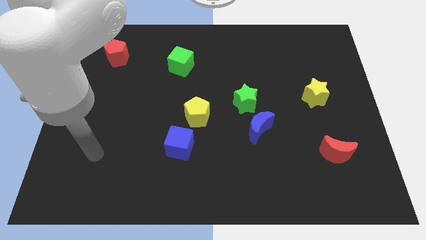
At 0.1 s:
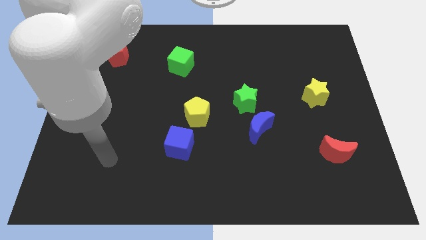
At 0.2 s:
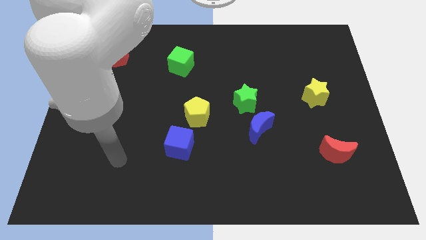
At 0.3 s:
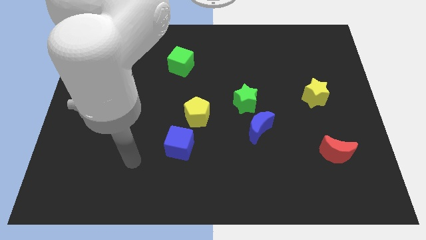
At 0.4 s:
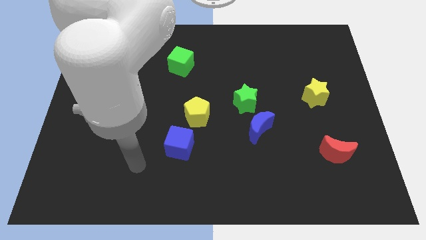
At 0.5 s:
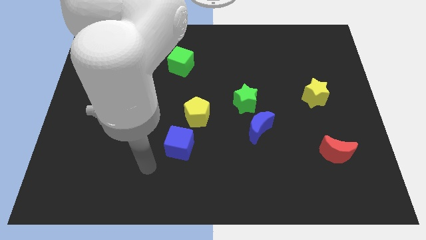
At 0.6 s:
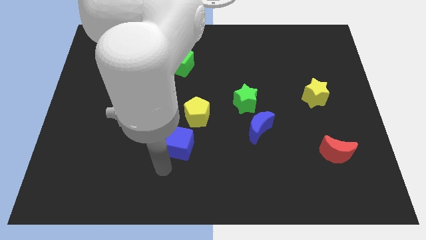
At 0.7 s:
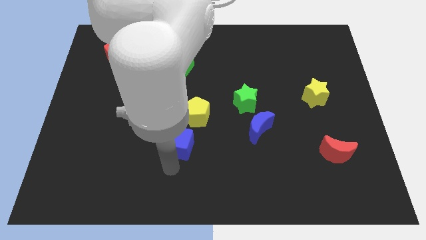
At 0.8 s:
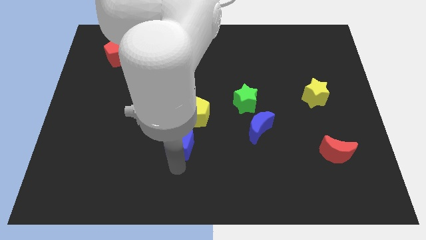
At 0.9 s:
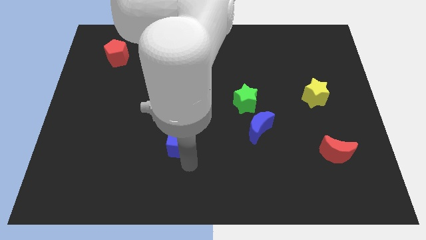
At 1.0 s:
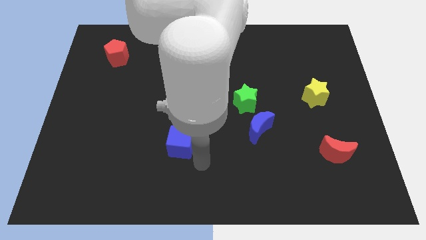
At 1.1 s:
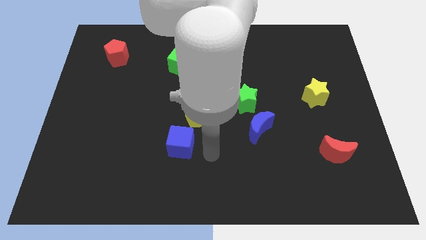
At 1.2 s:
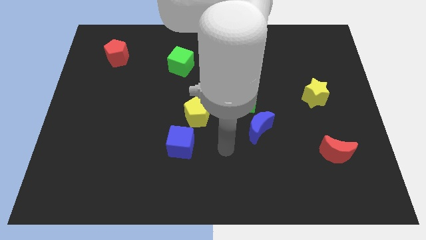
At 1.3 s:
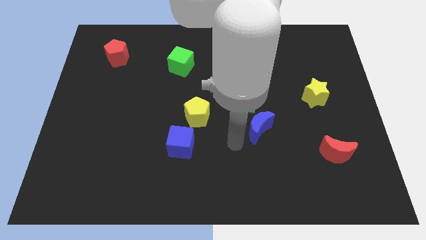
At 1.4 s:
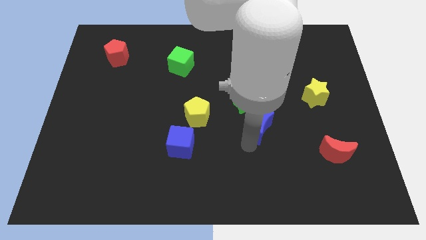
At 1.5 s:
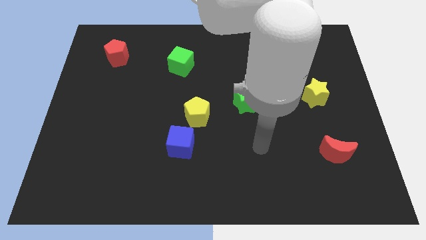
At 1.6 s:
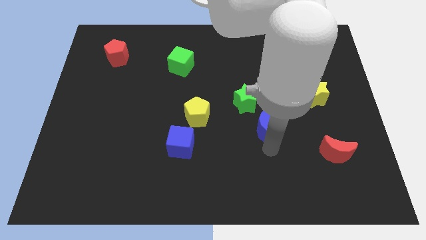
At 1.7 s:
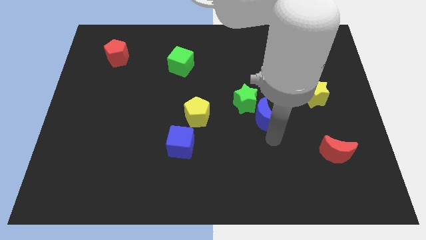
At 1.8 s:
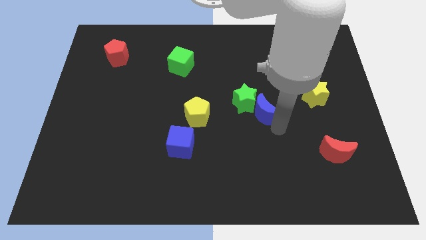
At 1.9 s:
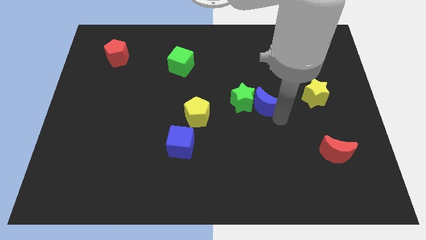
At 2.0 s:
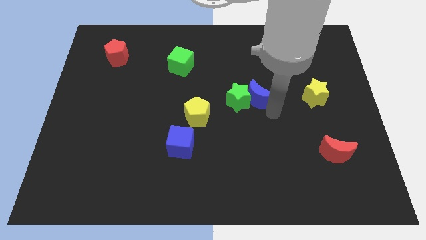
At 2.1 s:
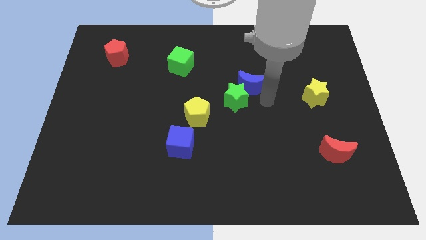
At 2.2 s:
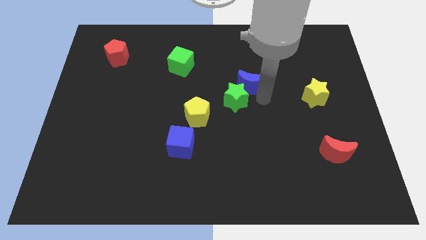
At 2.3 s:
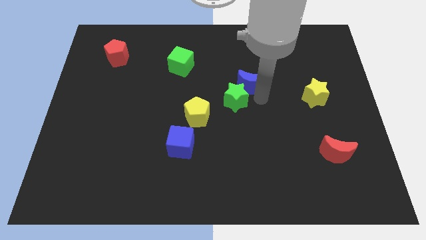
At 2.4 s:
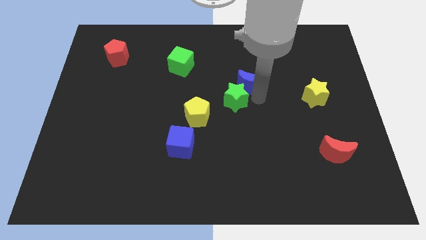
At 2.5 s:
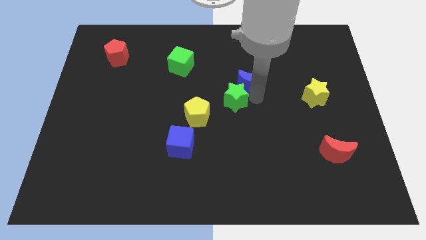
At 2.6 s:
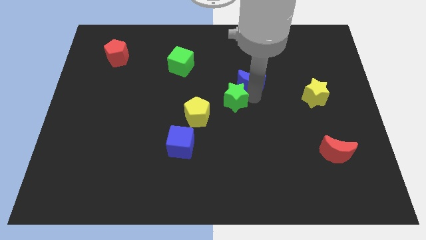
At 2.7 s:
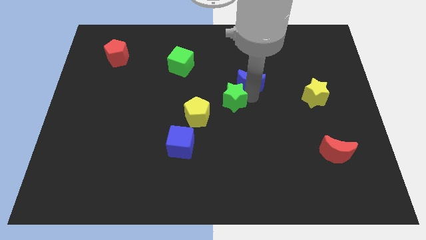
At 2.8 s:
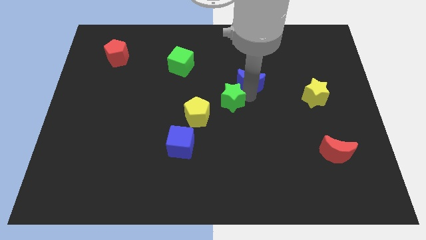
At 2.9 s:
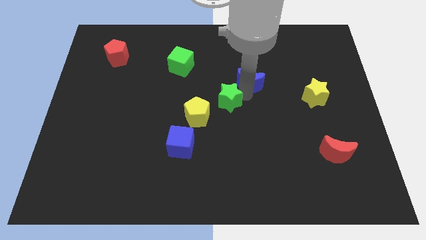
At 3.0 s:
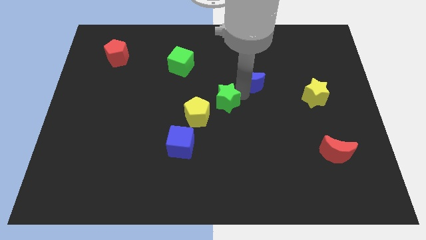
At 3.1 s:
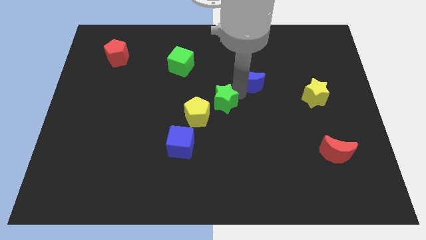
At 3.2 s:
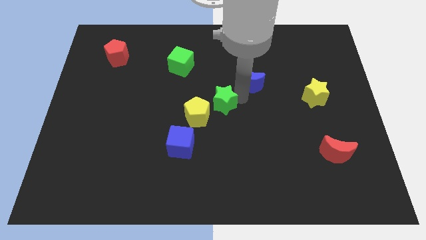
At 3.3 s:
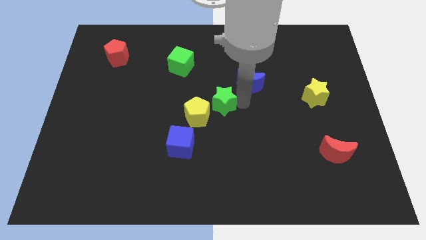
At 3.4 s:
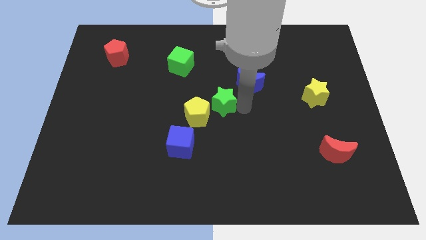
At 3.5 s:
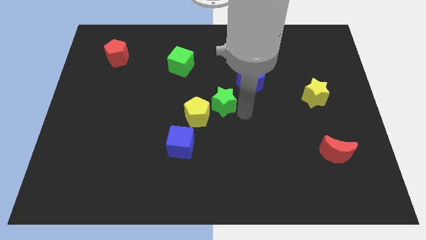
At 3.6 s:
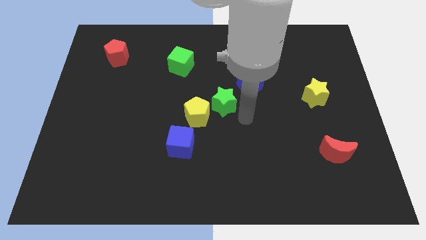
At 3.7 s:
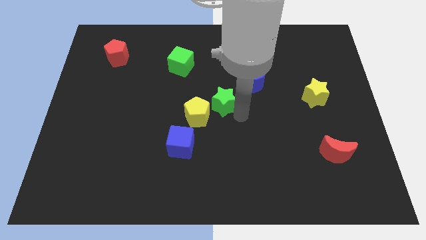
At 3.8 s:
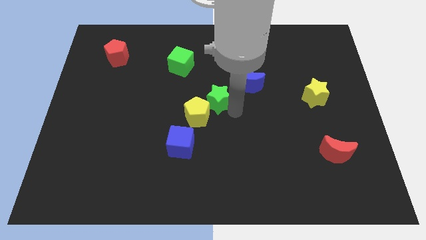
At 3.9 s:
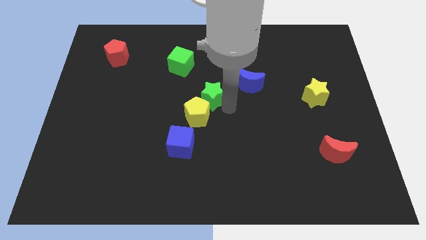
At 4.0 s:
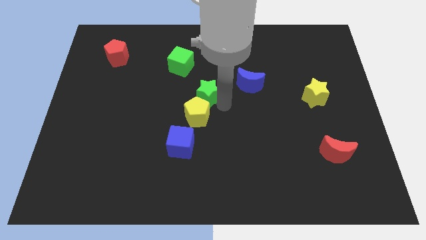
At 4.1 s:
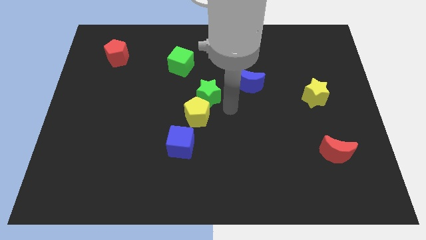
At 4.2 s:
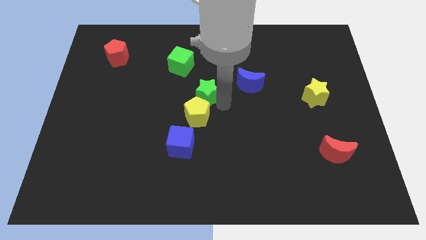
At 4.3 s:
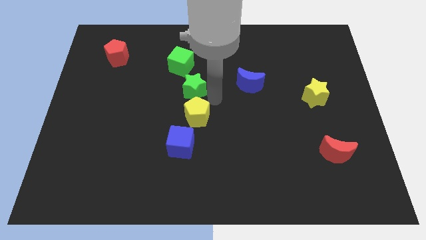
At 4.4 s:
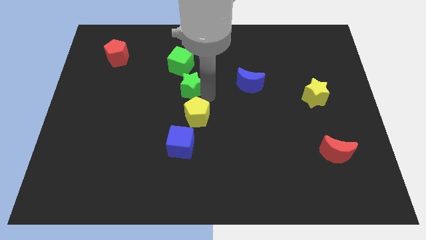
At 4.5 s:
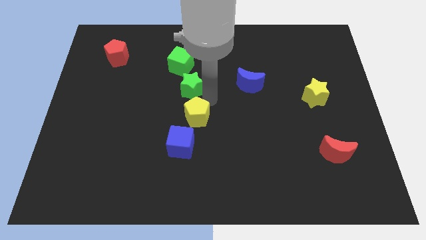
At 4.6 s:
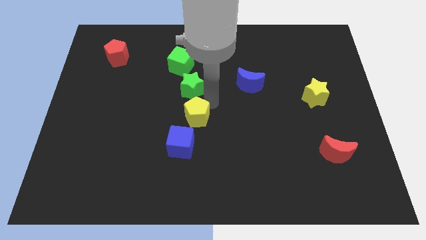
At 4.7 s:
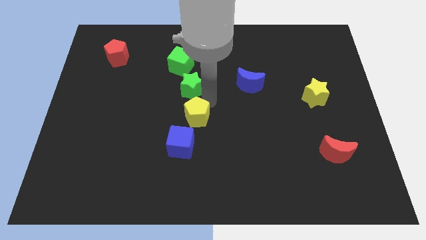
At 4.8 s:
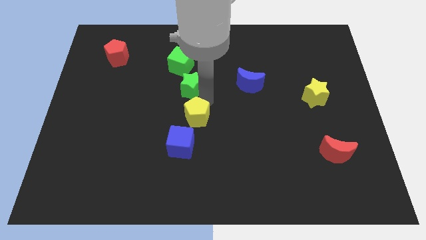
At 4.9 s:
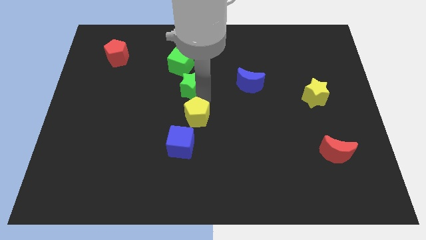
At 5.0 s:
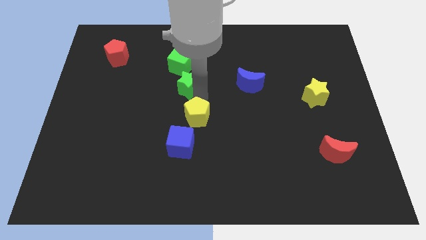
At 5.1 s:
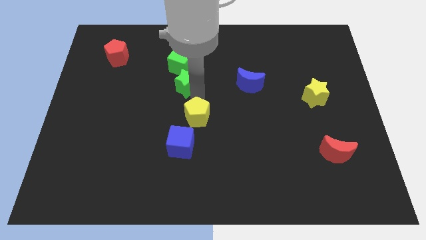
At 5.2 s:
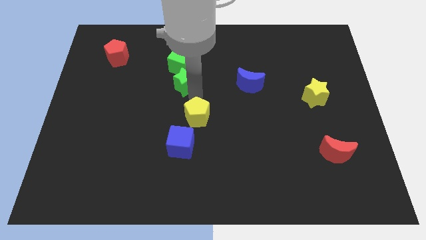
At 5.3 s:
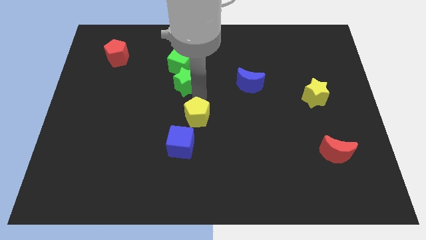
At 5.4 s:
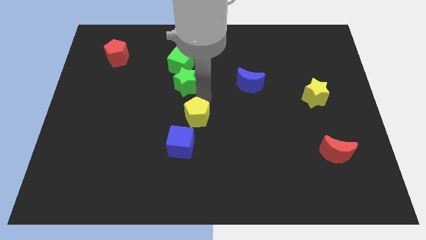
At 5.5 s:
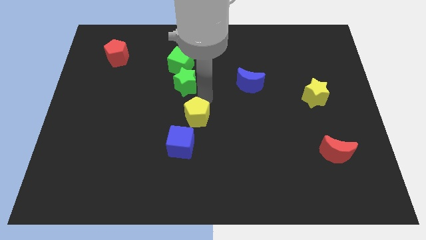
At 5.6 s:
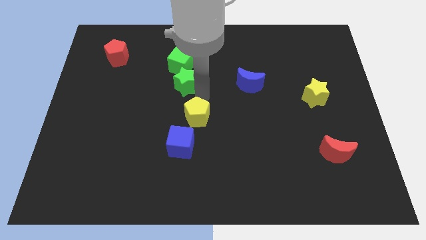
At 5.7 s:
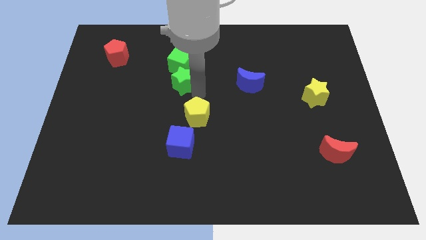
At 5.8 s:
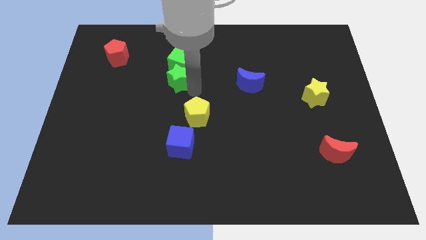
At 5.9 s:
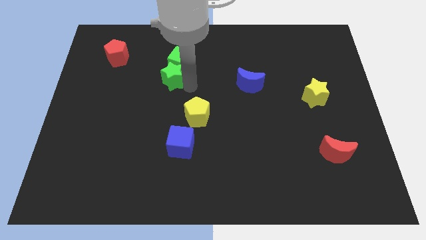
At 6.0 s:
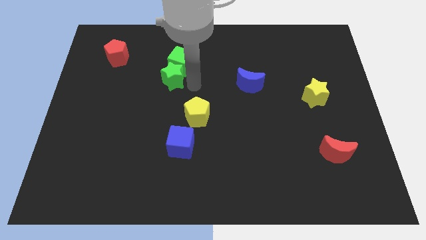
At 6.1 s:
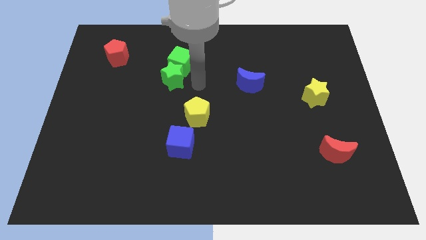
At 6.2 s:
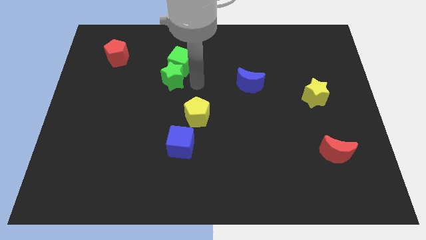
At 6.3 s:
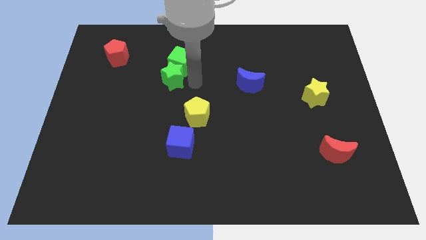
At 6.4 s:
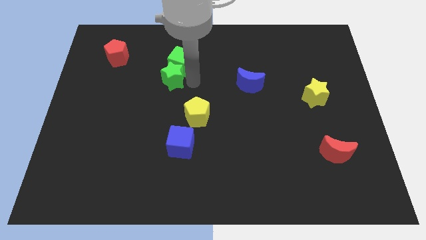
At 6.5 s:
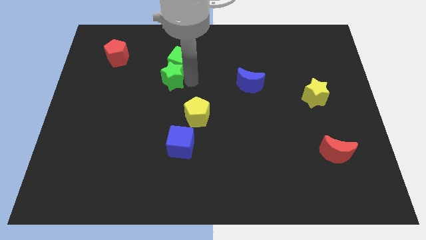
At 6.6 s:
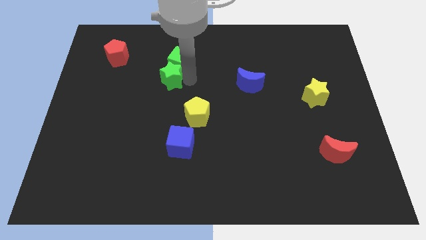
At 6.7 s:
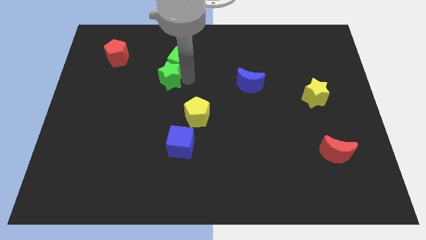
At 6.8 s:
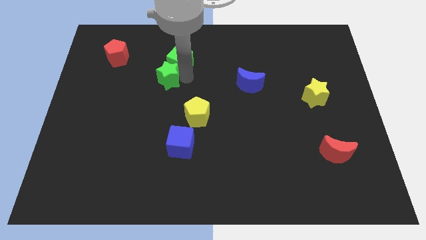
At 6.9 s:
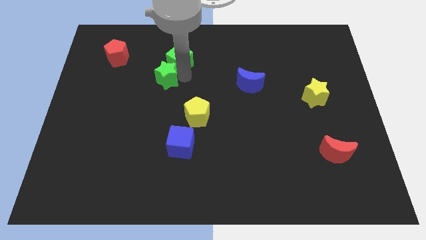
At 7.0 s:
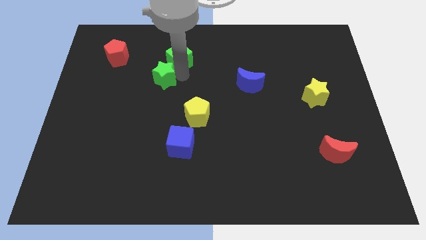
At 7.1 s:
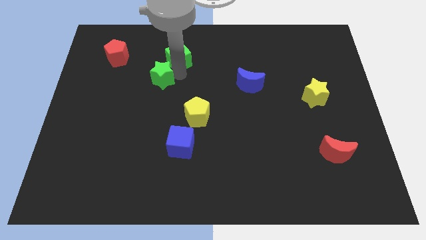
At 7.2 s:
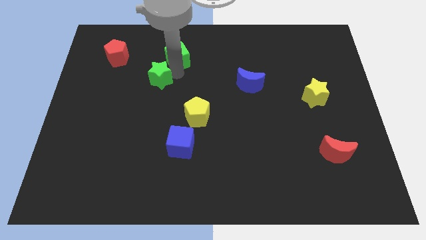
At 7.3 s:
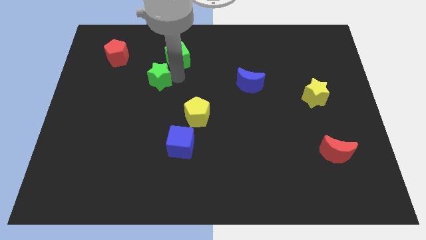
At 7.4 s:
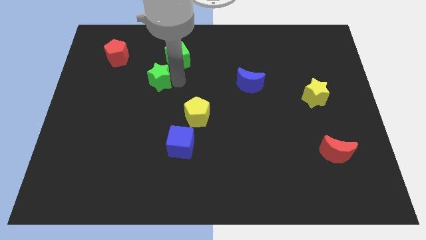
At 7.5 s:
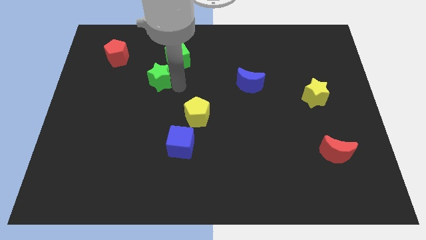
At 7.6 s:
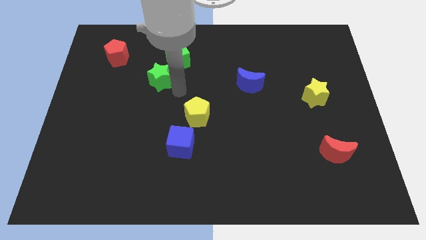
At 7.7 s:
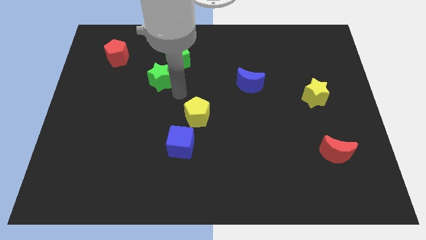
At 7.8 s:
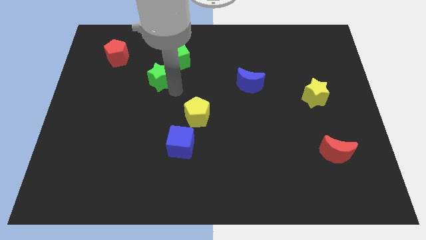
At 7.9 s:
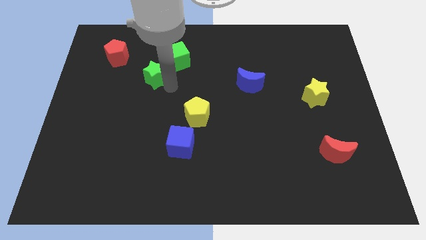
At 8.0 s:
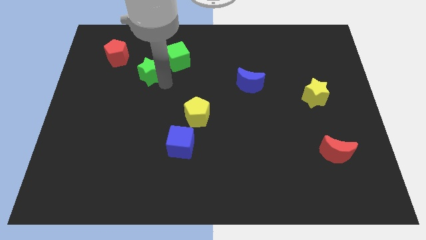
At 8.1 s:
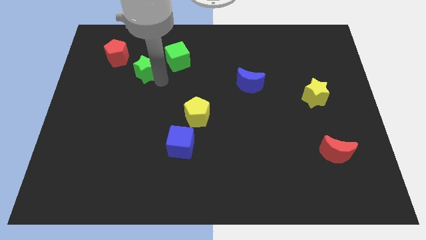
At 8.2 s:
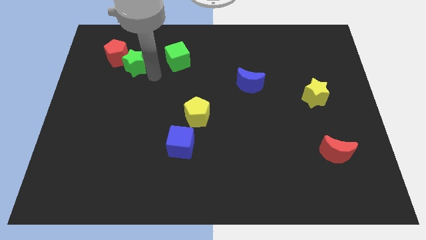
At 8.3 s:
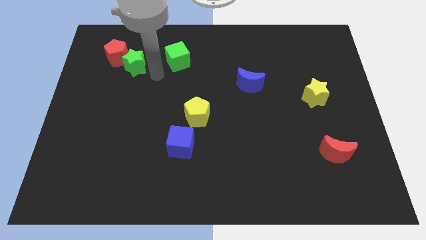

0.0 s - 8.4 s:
put the green star towards the red pentagon
